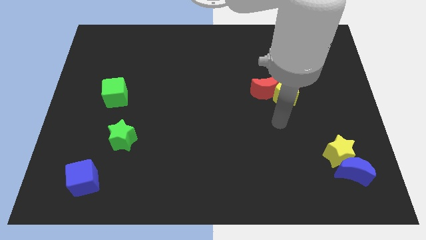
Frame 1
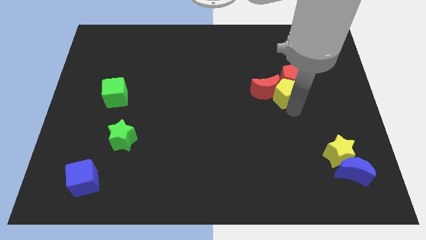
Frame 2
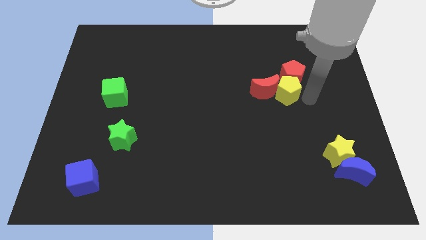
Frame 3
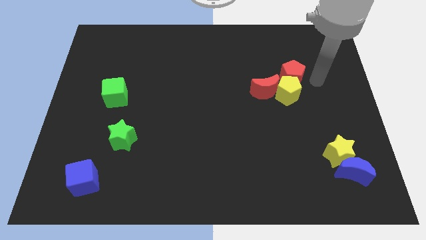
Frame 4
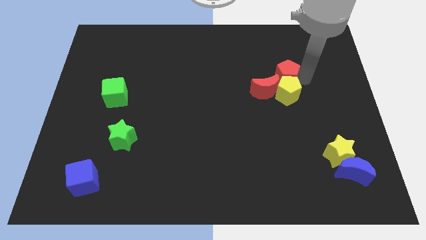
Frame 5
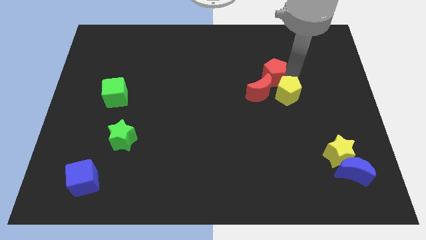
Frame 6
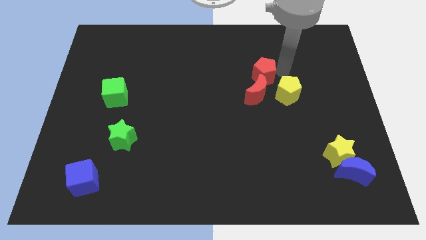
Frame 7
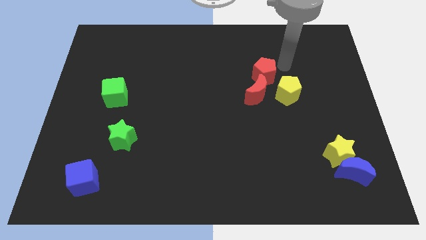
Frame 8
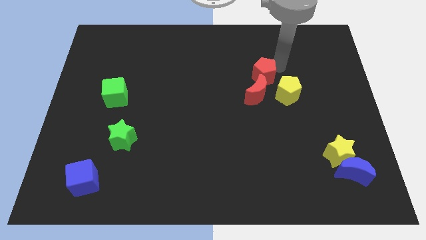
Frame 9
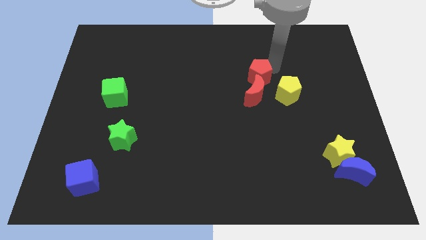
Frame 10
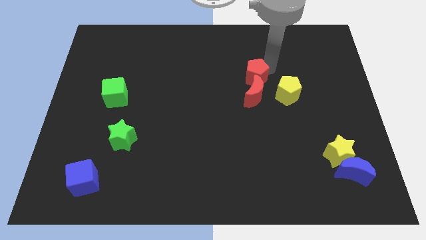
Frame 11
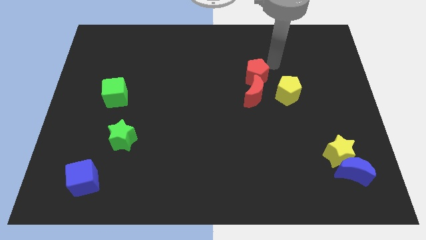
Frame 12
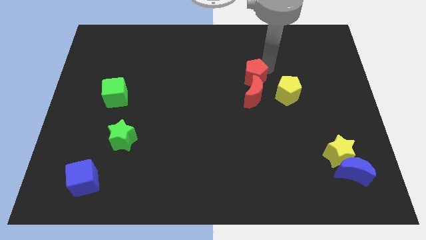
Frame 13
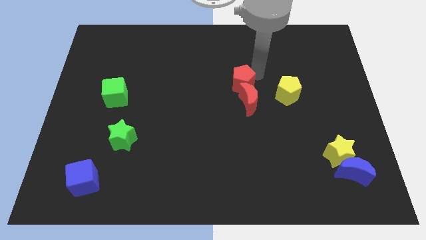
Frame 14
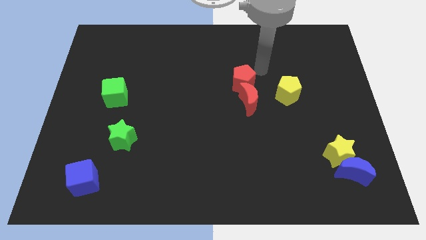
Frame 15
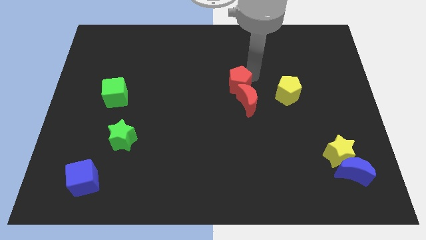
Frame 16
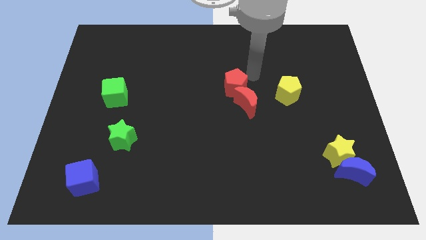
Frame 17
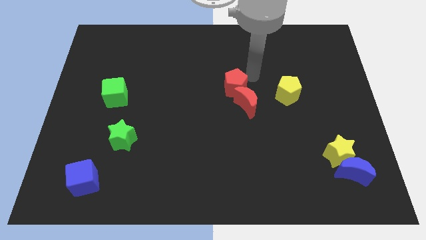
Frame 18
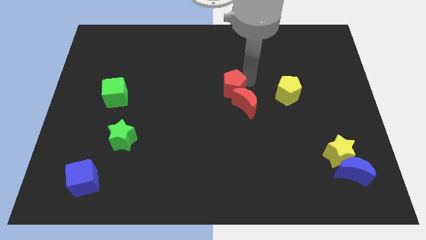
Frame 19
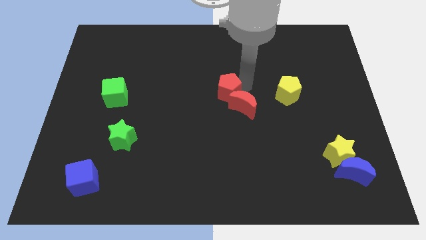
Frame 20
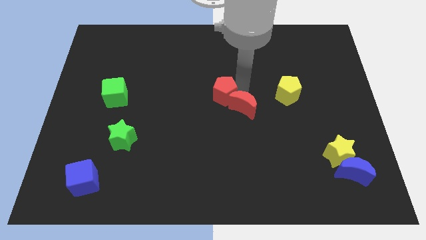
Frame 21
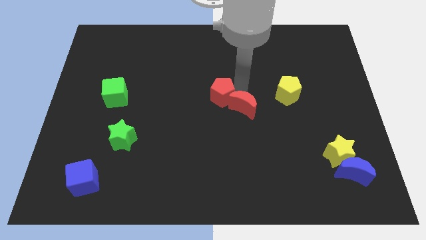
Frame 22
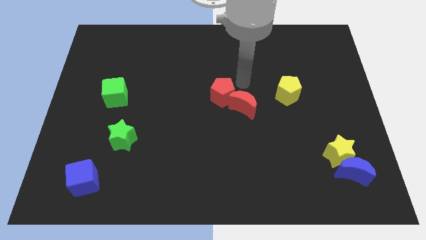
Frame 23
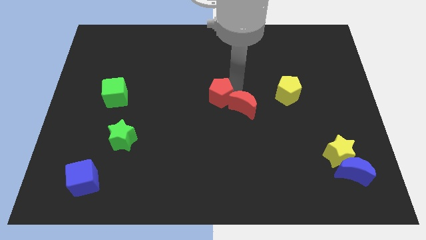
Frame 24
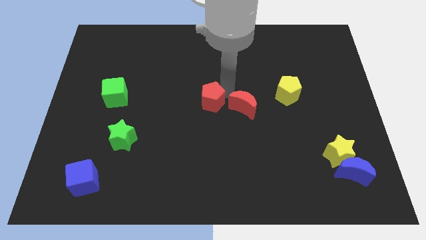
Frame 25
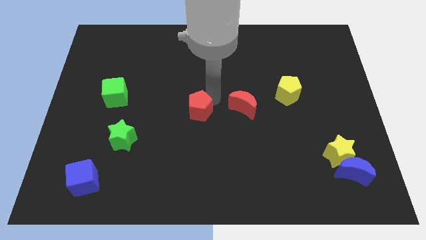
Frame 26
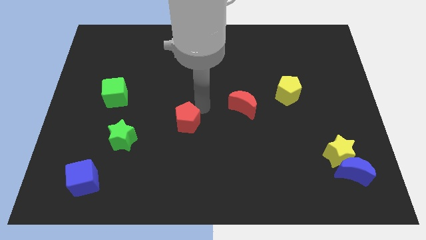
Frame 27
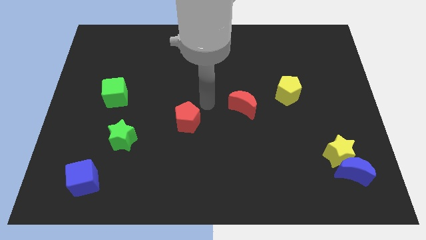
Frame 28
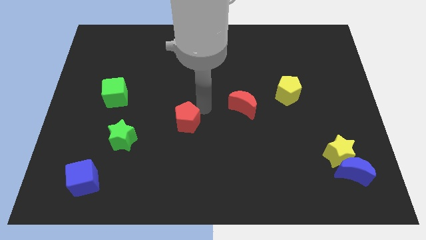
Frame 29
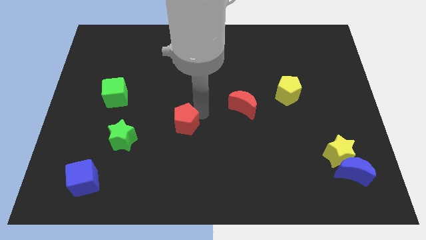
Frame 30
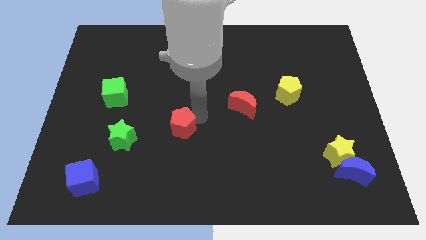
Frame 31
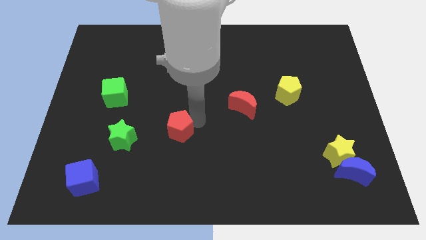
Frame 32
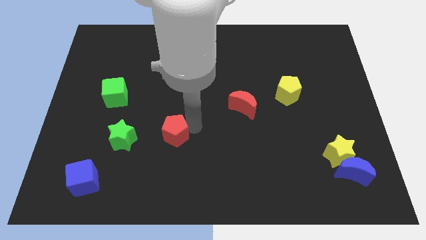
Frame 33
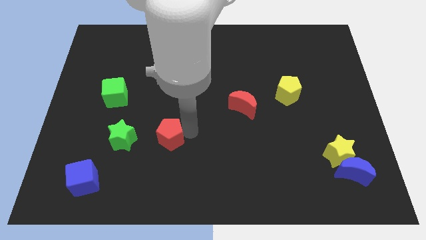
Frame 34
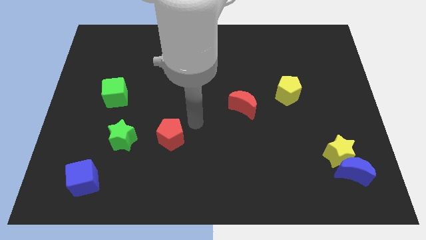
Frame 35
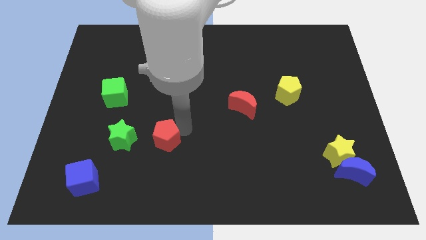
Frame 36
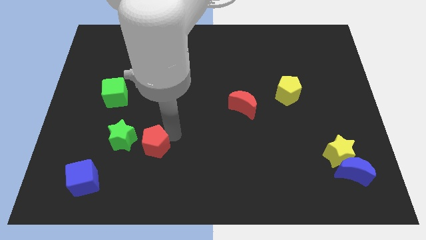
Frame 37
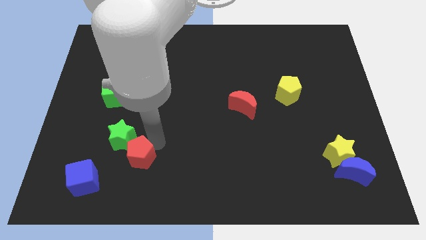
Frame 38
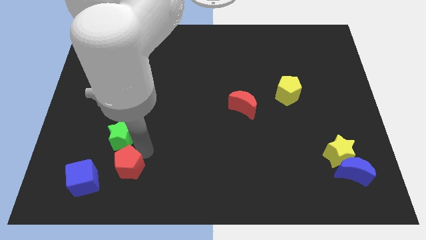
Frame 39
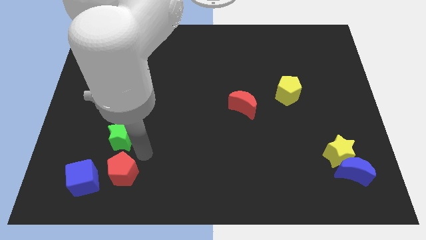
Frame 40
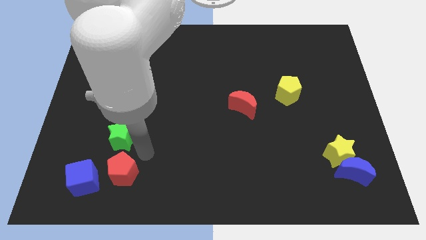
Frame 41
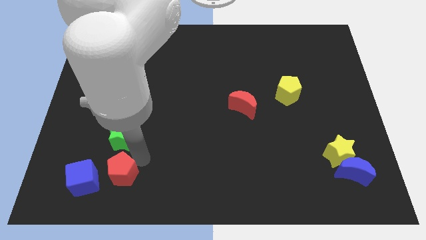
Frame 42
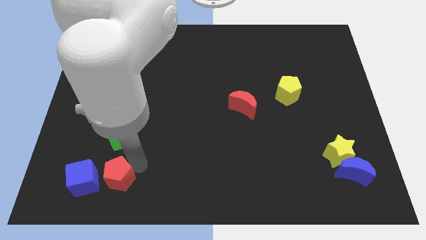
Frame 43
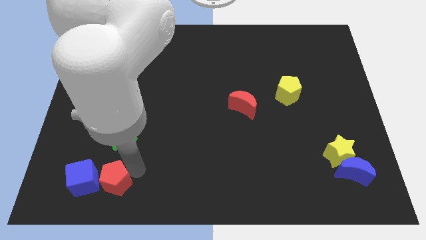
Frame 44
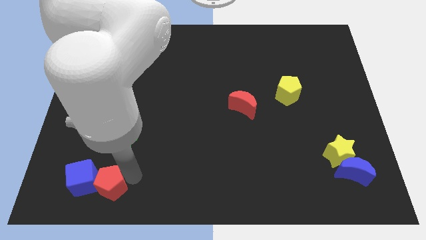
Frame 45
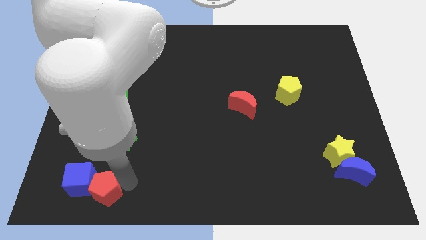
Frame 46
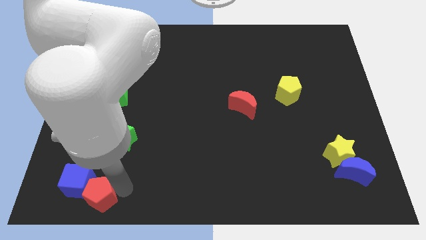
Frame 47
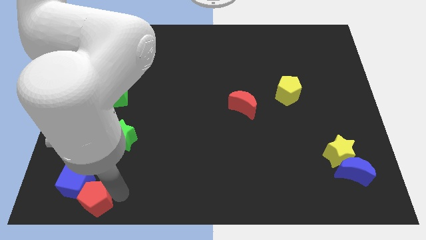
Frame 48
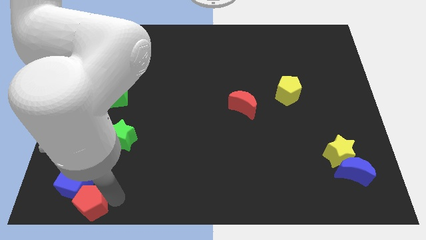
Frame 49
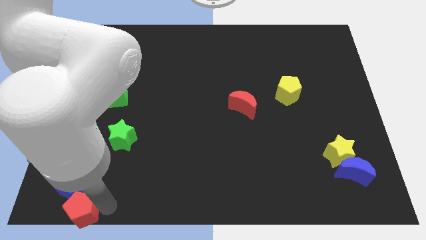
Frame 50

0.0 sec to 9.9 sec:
put the red pentagon to the bottom left corner

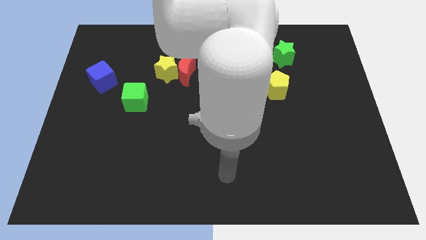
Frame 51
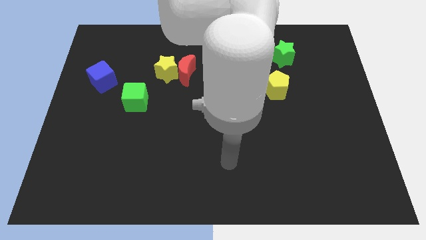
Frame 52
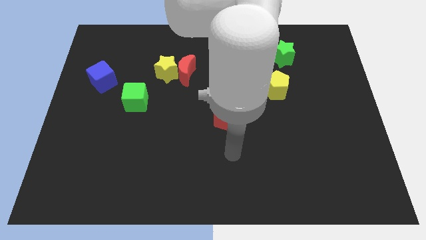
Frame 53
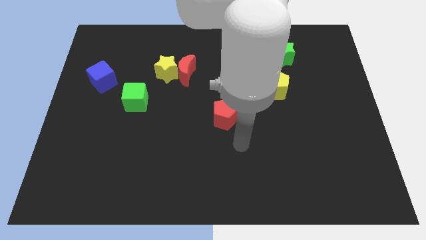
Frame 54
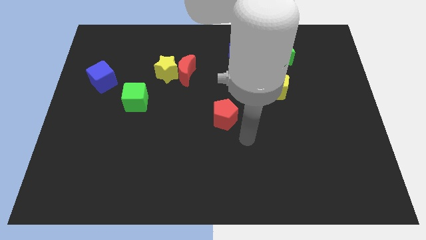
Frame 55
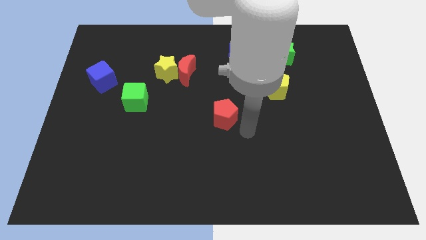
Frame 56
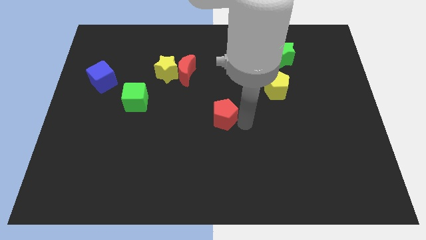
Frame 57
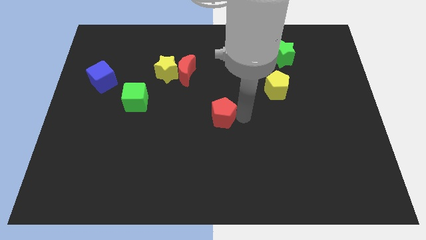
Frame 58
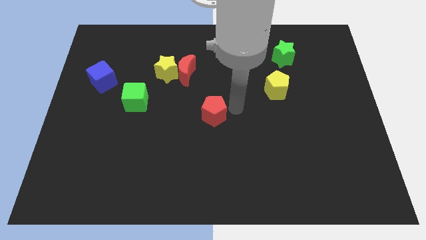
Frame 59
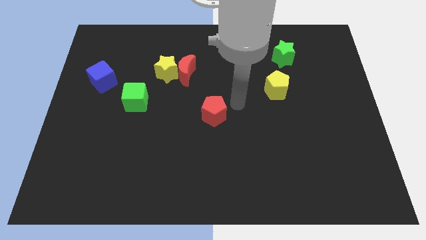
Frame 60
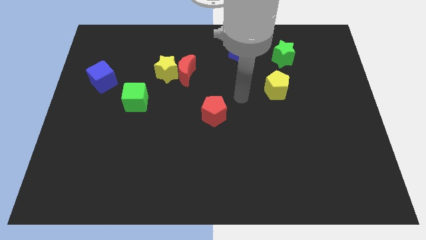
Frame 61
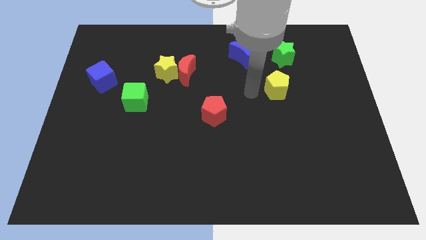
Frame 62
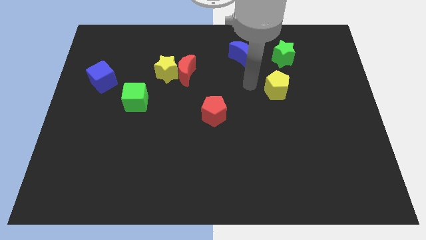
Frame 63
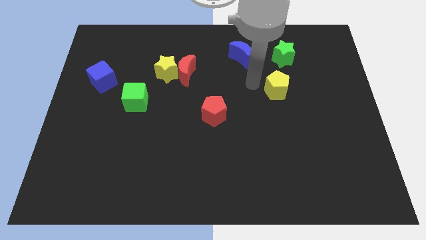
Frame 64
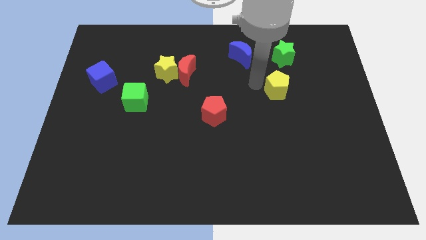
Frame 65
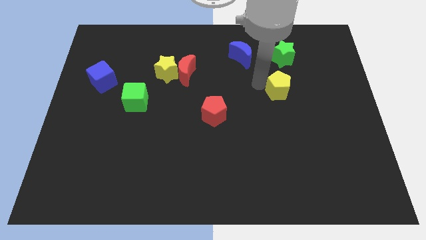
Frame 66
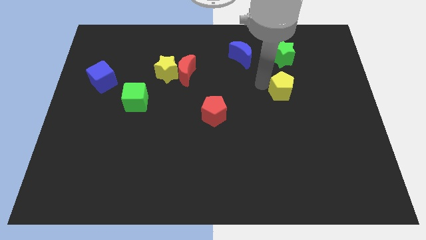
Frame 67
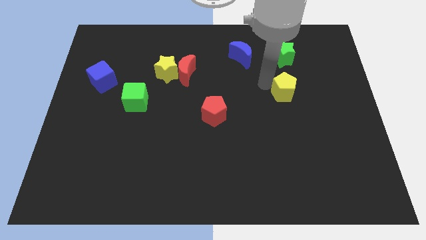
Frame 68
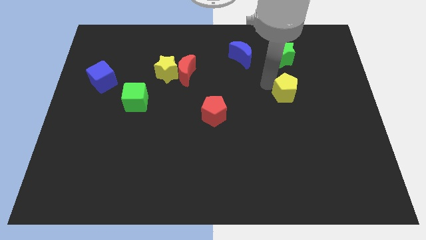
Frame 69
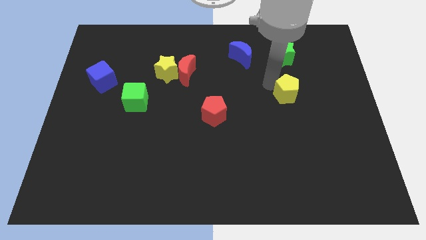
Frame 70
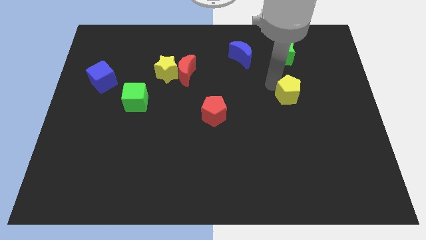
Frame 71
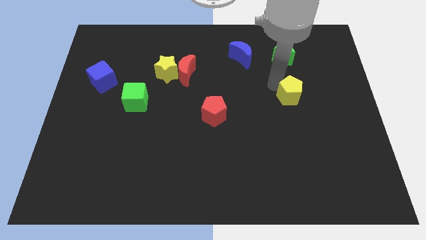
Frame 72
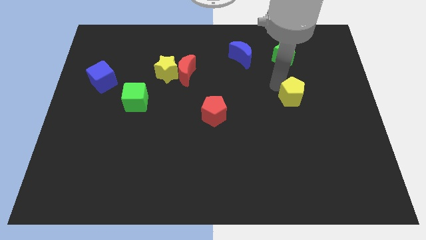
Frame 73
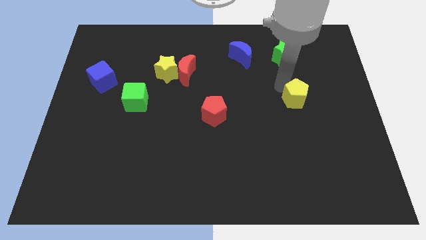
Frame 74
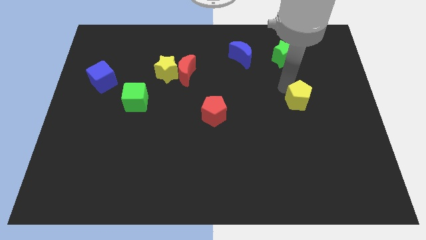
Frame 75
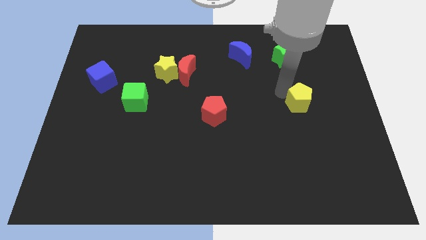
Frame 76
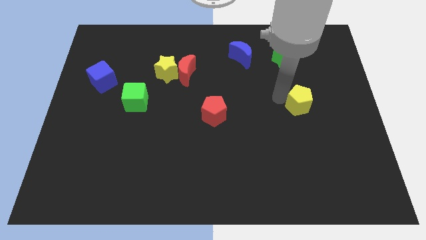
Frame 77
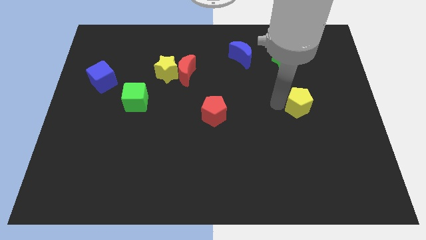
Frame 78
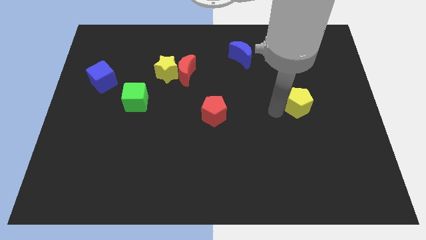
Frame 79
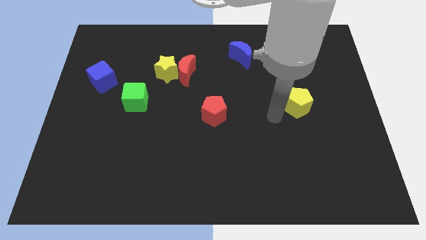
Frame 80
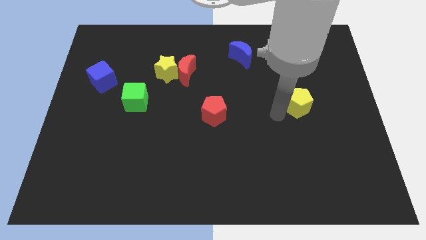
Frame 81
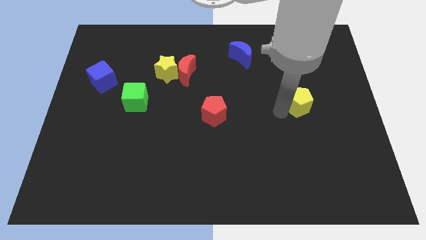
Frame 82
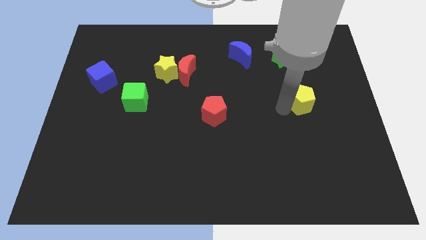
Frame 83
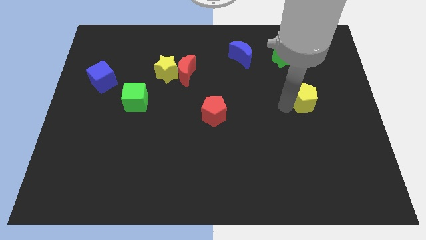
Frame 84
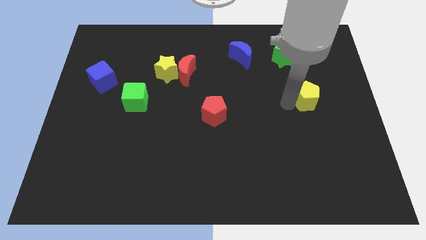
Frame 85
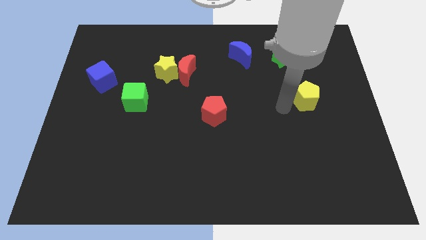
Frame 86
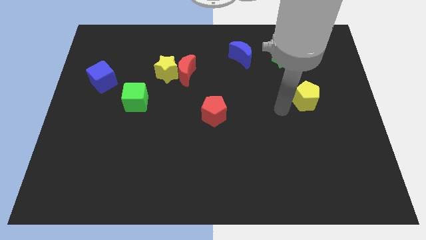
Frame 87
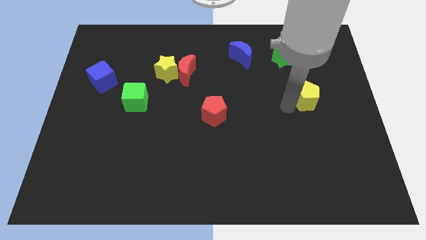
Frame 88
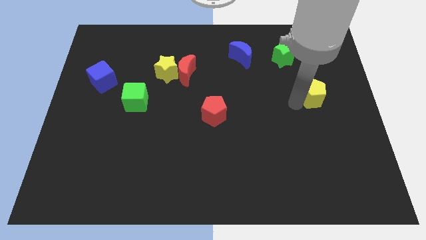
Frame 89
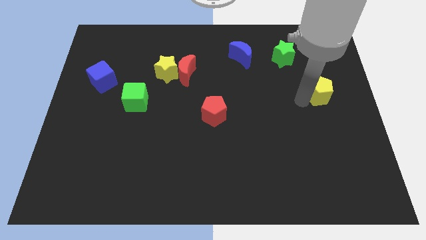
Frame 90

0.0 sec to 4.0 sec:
push the yellow pentagon to the right side
